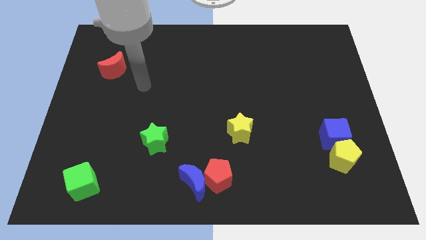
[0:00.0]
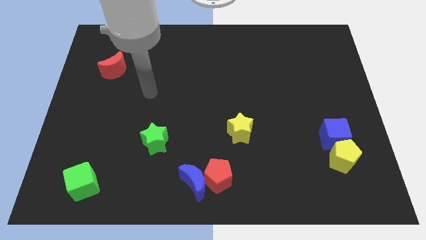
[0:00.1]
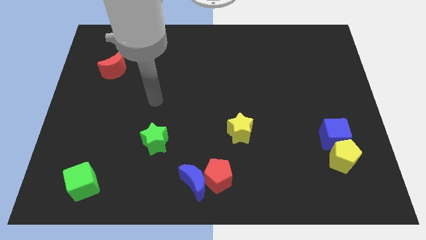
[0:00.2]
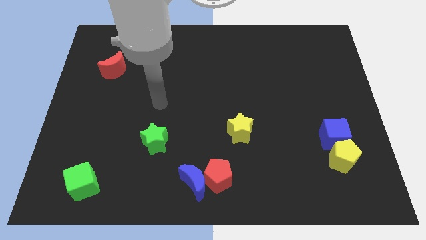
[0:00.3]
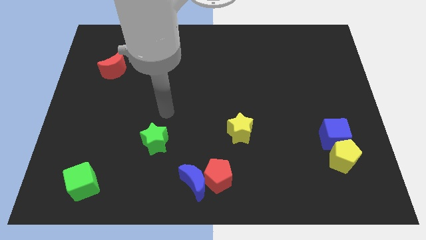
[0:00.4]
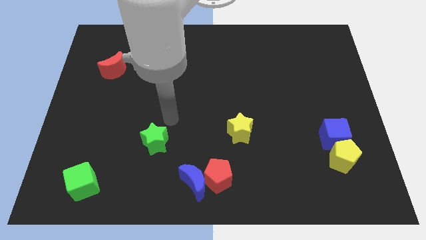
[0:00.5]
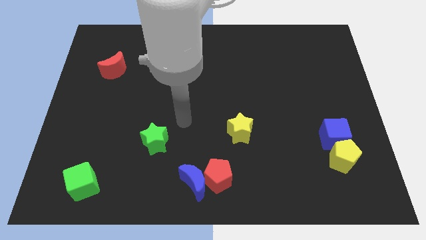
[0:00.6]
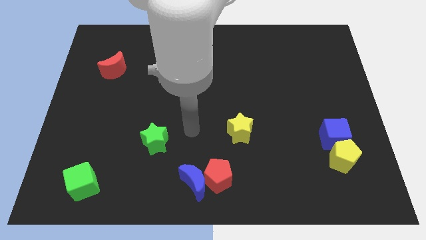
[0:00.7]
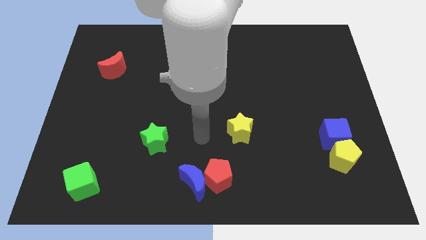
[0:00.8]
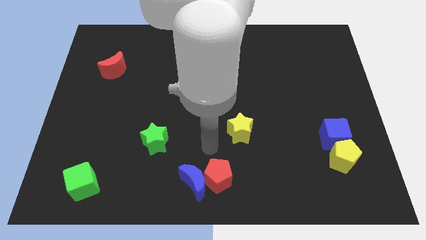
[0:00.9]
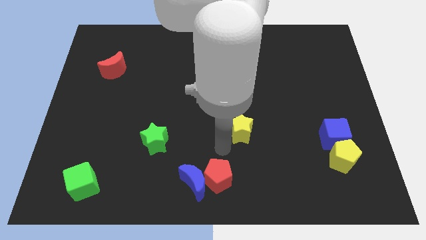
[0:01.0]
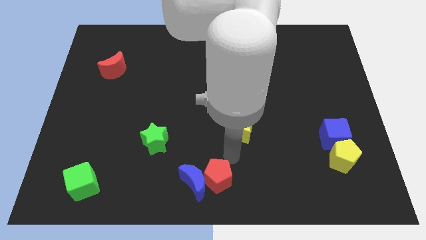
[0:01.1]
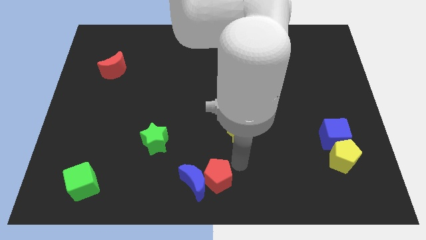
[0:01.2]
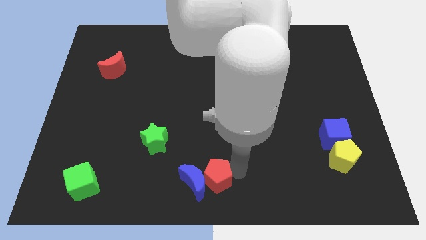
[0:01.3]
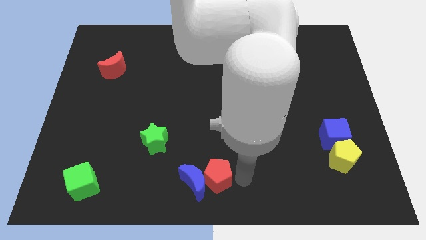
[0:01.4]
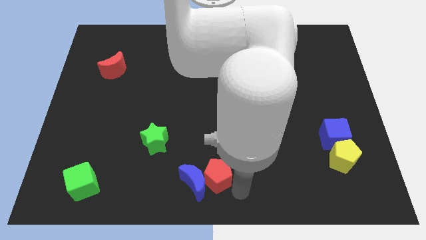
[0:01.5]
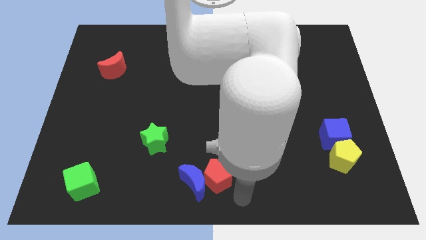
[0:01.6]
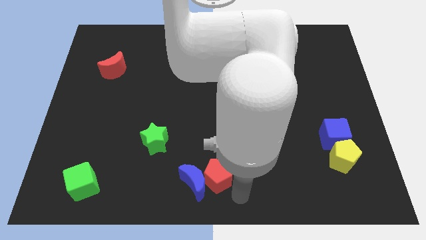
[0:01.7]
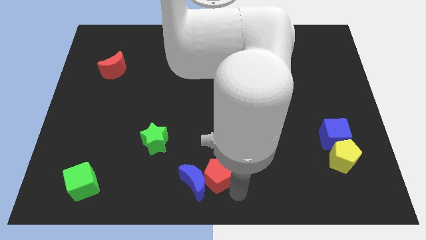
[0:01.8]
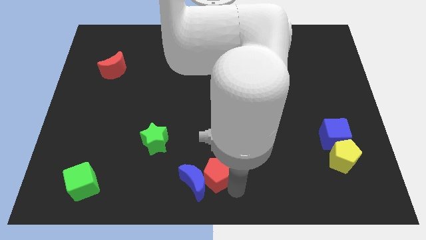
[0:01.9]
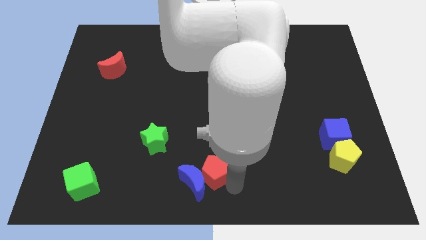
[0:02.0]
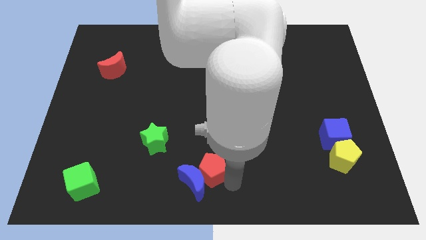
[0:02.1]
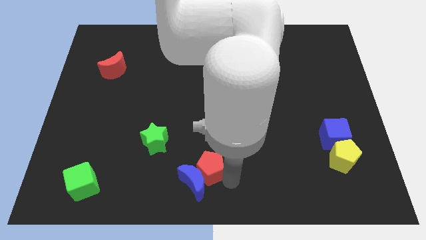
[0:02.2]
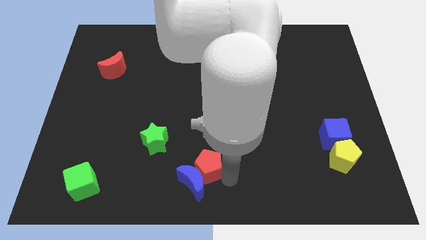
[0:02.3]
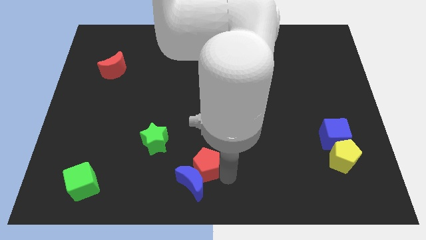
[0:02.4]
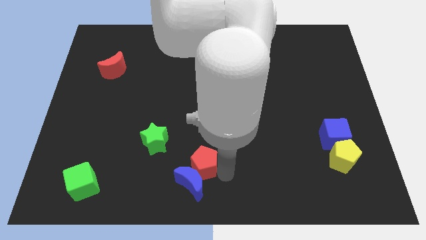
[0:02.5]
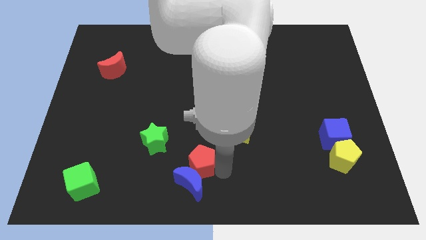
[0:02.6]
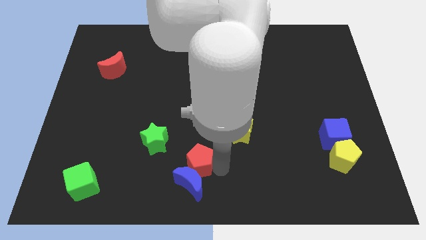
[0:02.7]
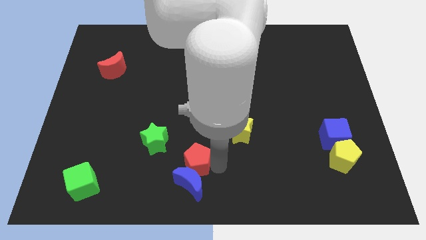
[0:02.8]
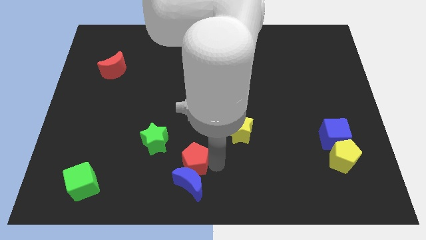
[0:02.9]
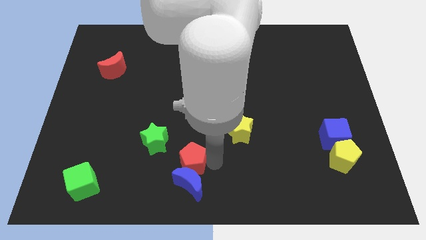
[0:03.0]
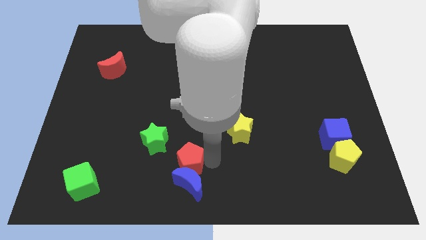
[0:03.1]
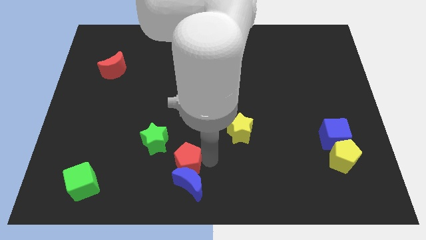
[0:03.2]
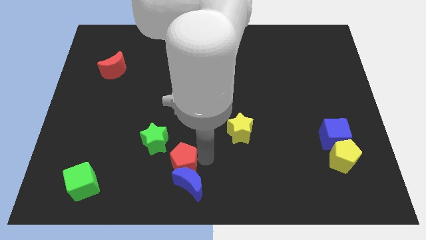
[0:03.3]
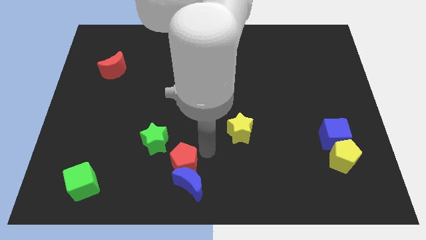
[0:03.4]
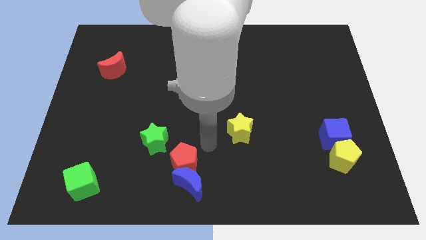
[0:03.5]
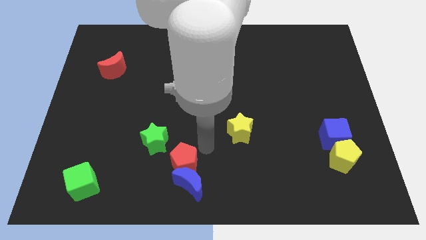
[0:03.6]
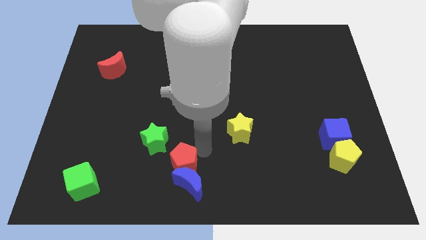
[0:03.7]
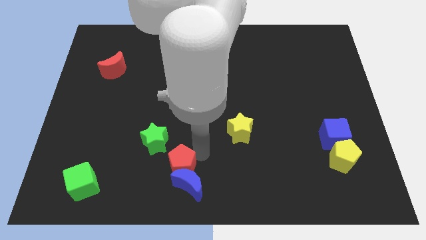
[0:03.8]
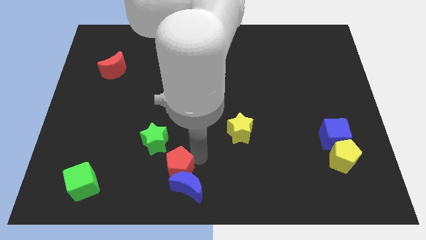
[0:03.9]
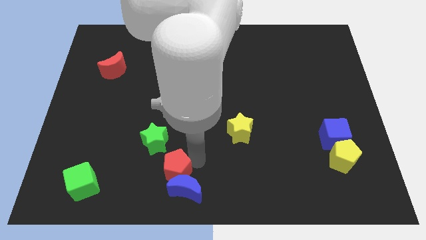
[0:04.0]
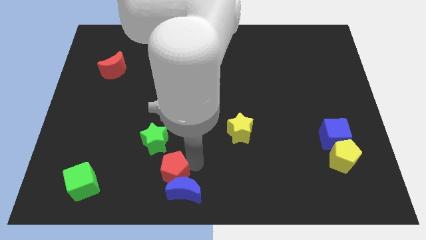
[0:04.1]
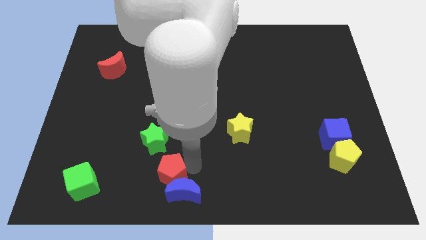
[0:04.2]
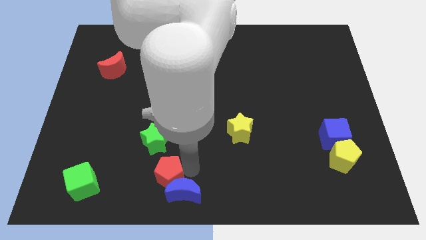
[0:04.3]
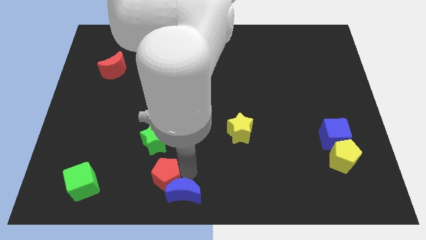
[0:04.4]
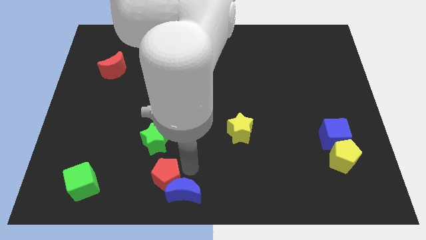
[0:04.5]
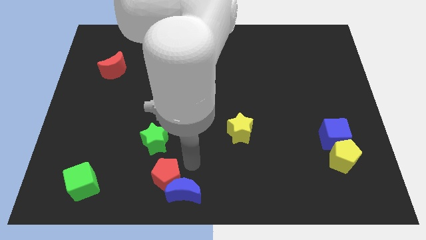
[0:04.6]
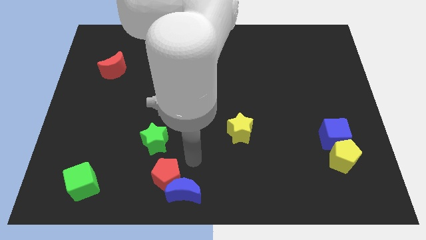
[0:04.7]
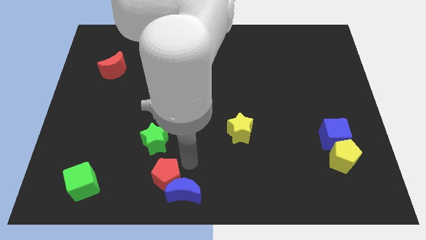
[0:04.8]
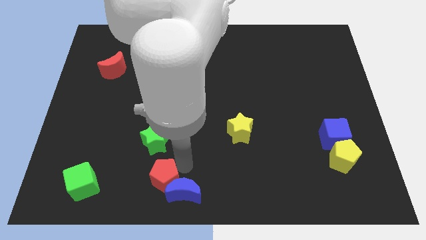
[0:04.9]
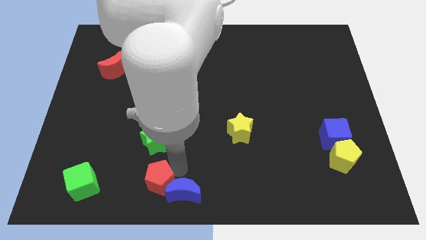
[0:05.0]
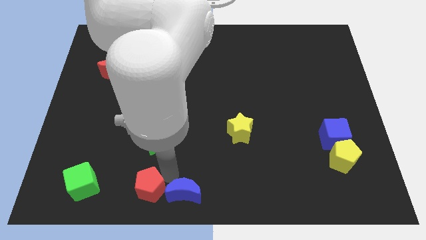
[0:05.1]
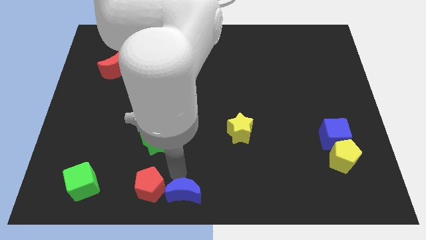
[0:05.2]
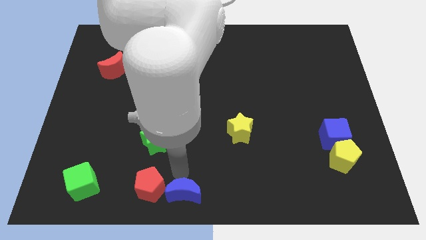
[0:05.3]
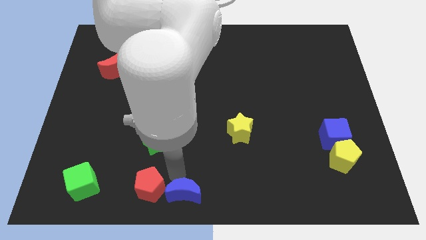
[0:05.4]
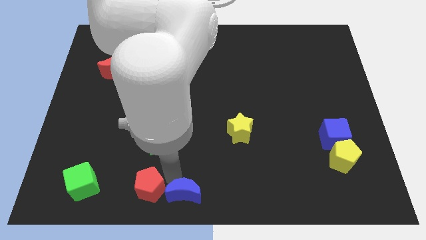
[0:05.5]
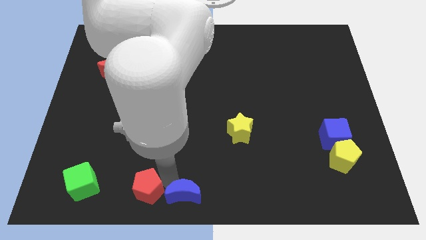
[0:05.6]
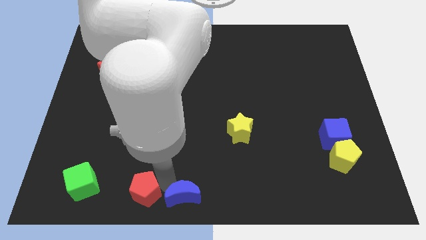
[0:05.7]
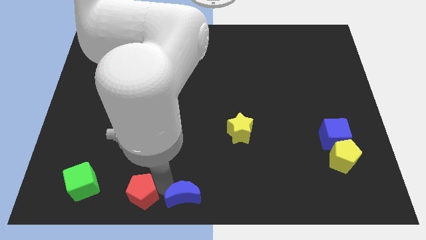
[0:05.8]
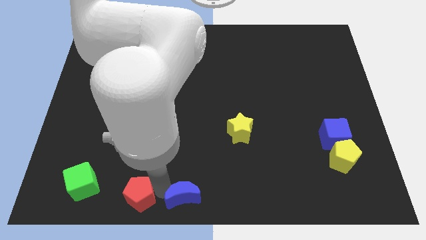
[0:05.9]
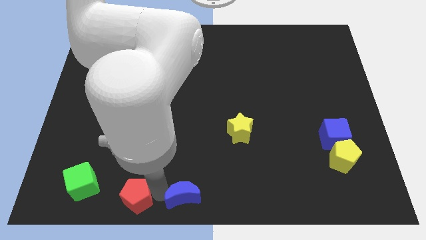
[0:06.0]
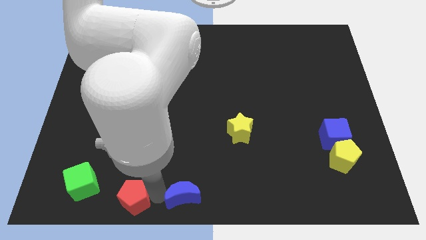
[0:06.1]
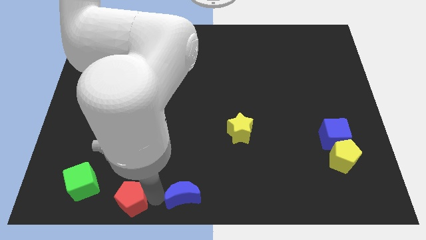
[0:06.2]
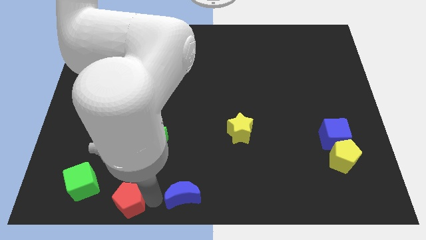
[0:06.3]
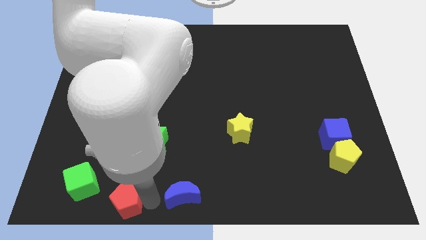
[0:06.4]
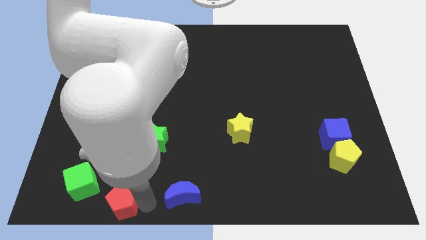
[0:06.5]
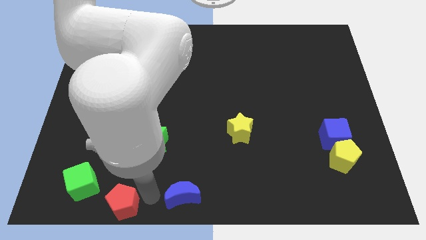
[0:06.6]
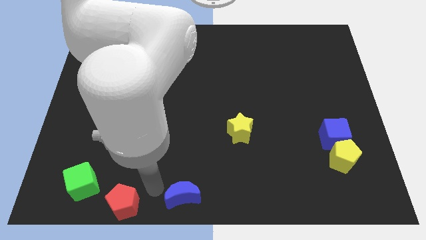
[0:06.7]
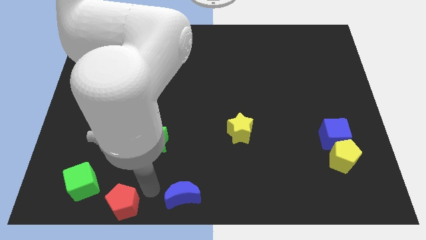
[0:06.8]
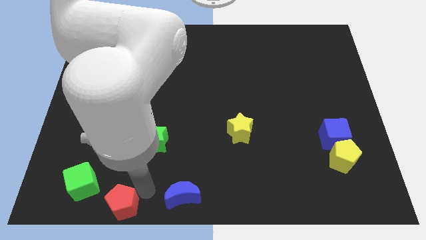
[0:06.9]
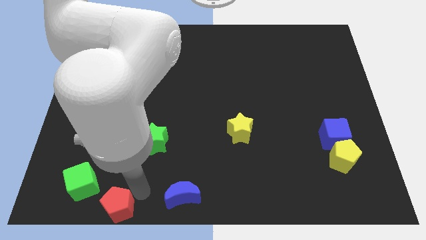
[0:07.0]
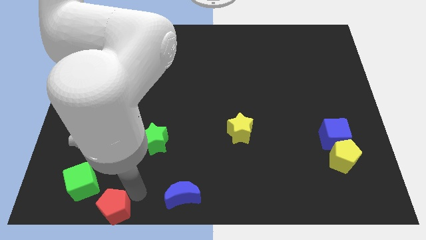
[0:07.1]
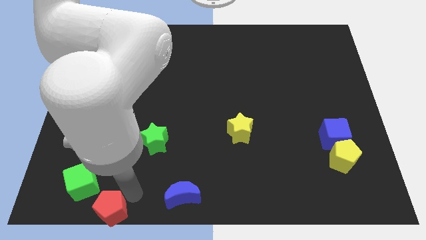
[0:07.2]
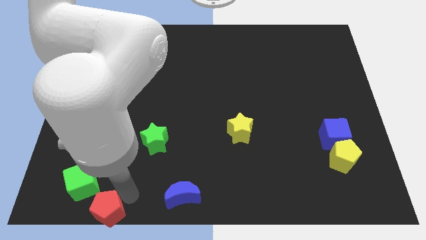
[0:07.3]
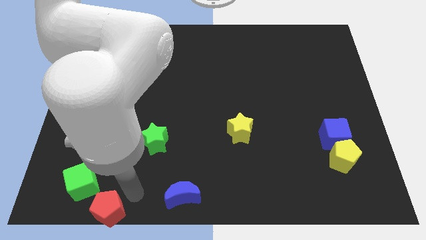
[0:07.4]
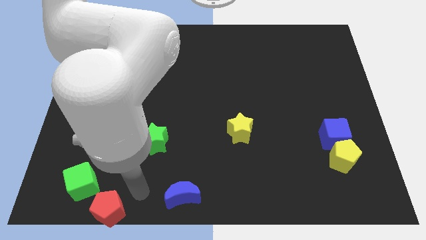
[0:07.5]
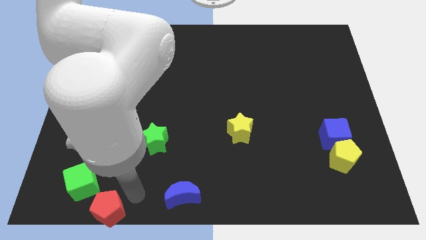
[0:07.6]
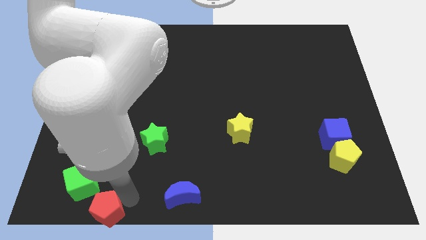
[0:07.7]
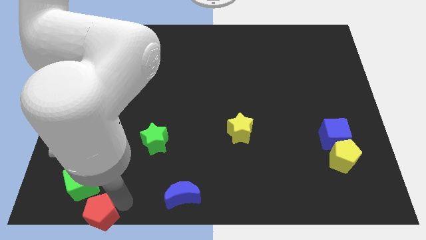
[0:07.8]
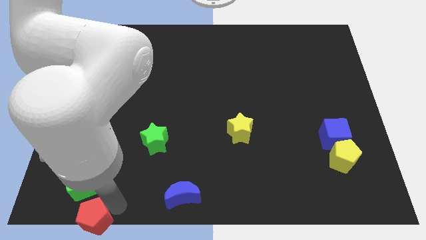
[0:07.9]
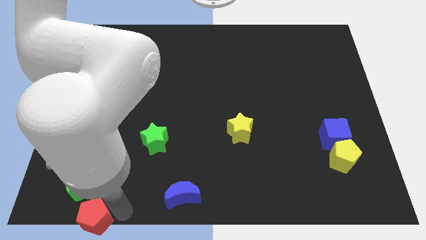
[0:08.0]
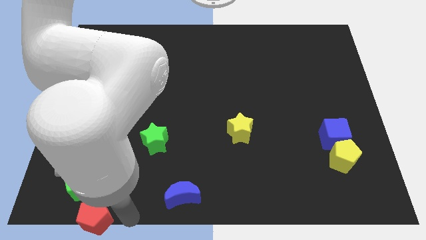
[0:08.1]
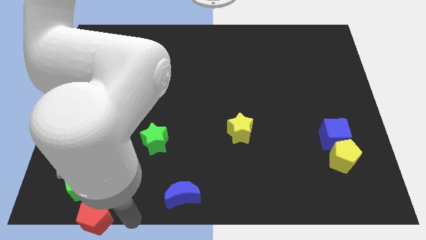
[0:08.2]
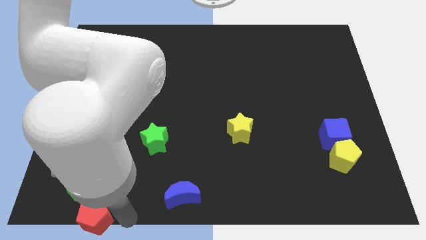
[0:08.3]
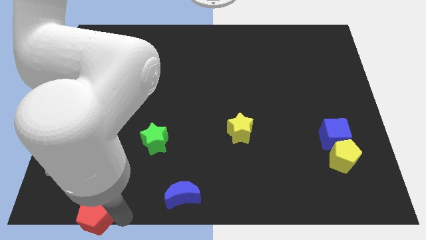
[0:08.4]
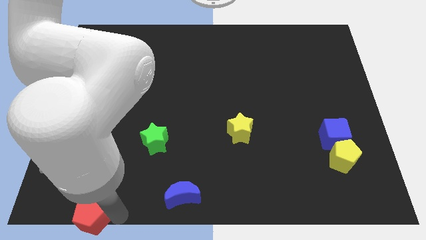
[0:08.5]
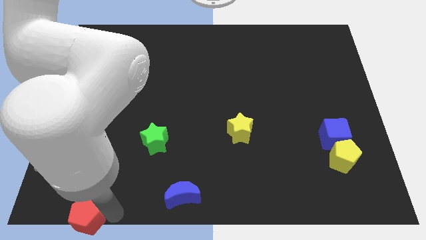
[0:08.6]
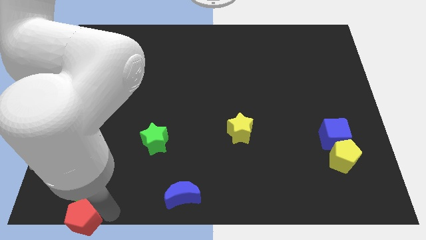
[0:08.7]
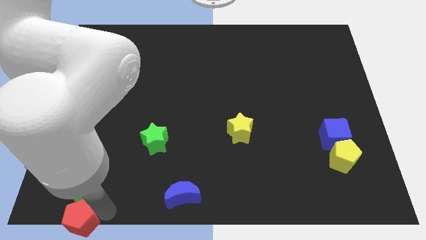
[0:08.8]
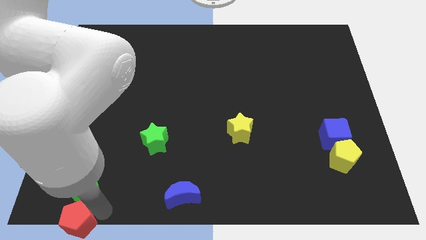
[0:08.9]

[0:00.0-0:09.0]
put the red pentagon to the lower left corner
